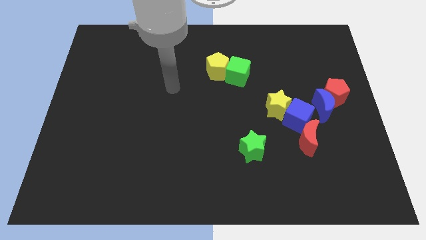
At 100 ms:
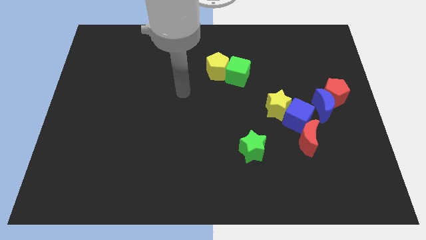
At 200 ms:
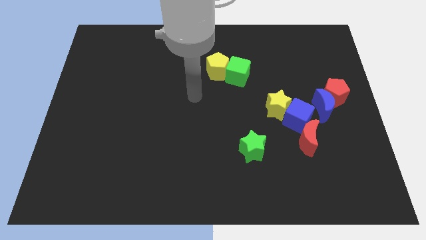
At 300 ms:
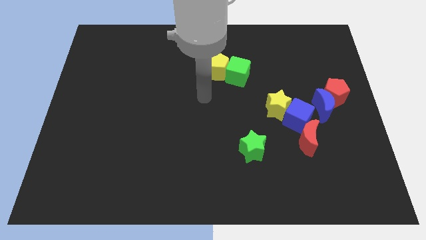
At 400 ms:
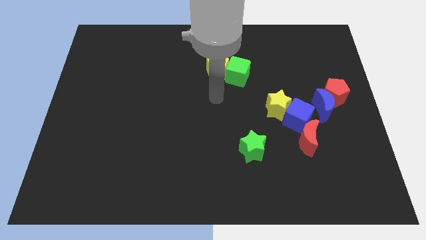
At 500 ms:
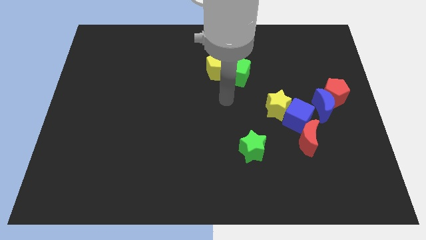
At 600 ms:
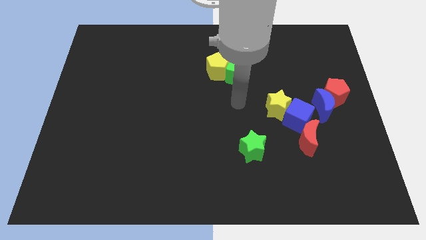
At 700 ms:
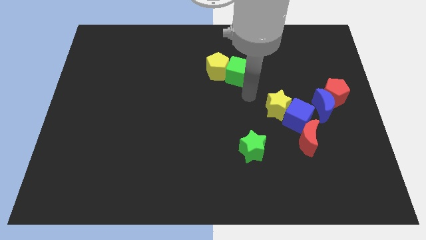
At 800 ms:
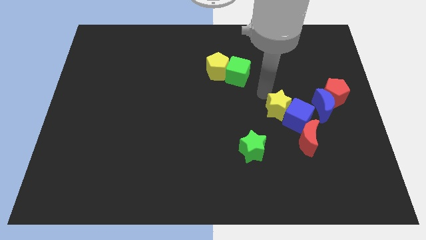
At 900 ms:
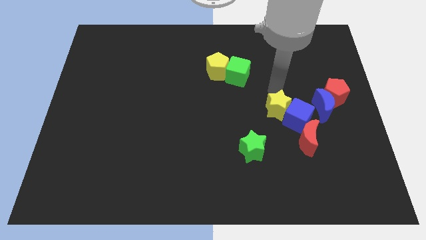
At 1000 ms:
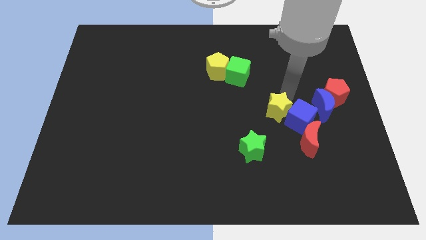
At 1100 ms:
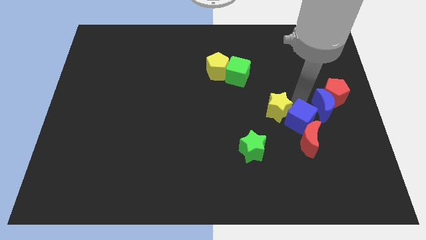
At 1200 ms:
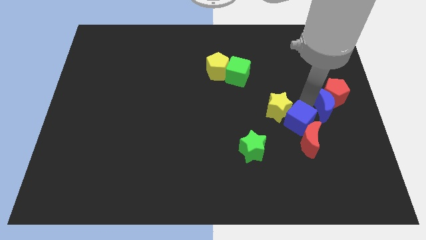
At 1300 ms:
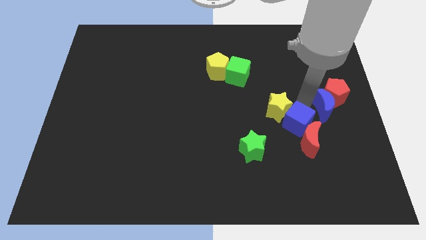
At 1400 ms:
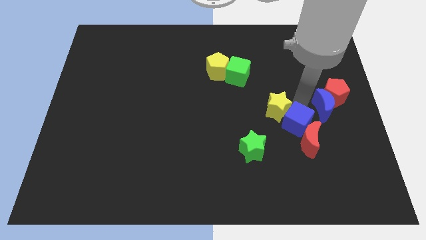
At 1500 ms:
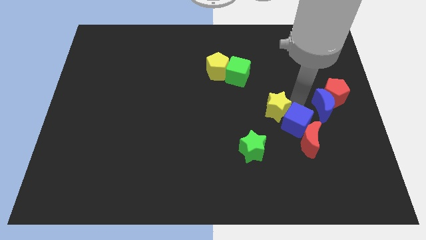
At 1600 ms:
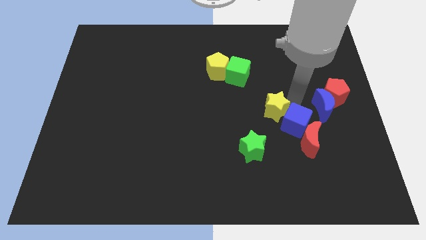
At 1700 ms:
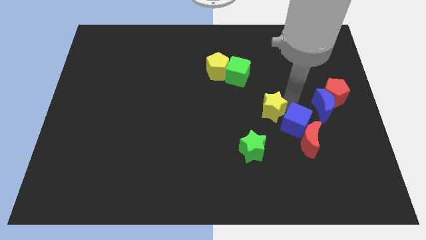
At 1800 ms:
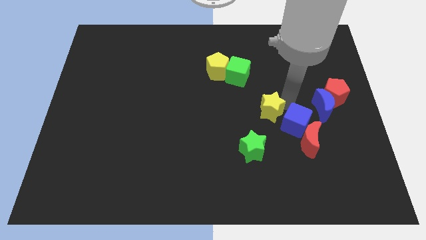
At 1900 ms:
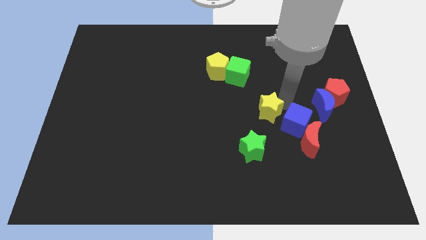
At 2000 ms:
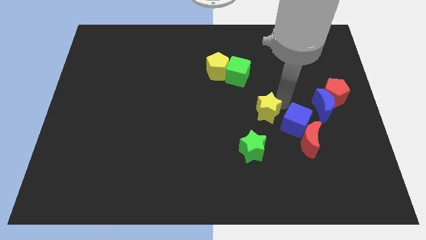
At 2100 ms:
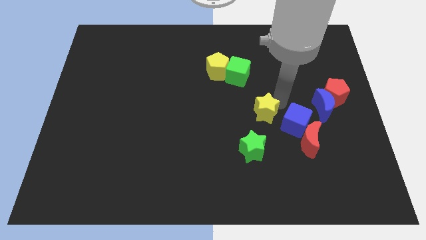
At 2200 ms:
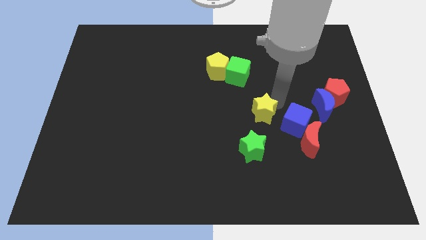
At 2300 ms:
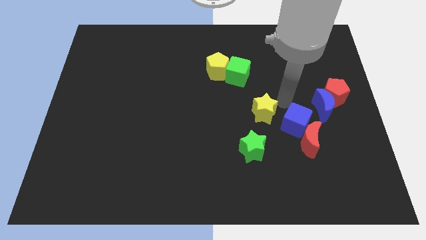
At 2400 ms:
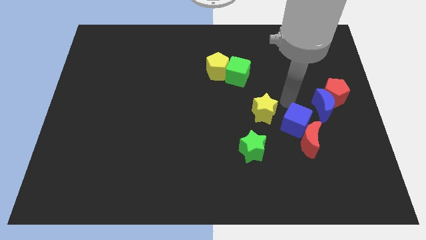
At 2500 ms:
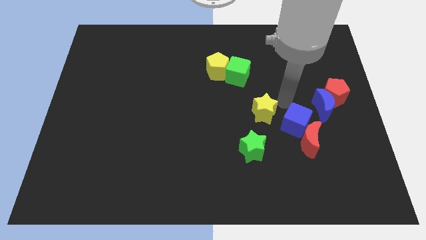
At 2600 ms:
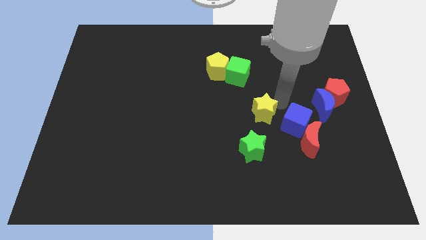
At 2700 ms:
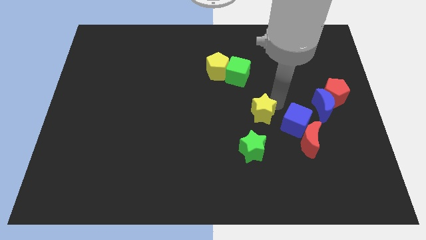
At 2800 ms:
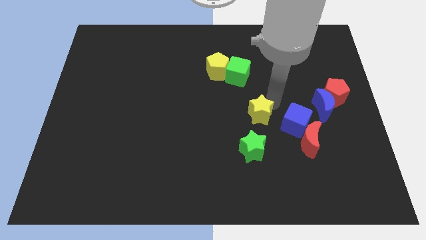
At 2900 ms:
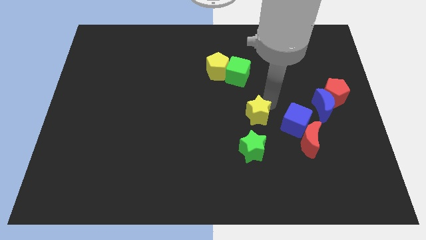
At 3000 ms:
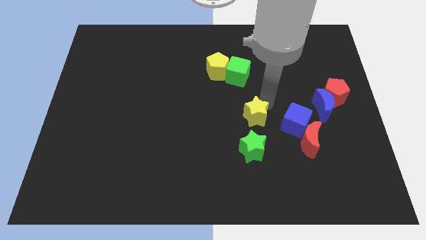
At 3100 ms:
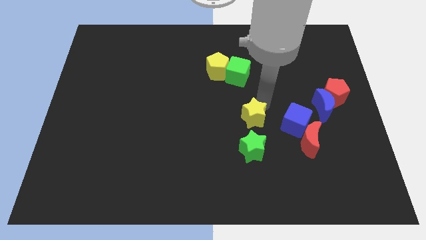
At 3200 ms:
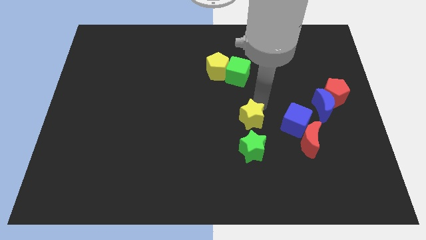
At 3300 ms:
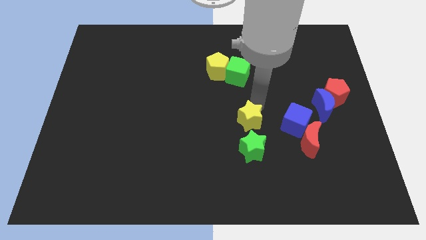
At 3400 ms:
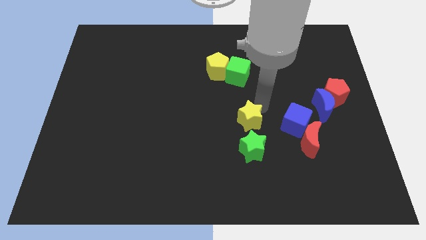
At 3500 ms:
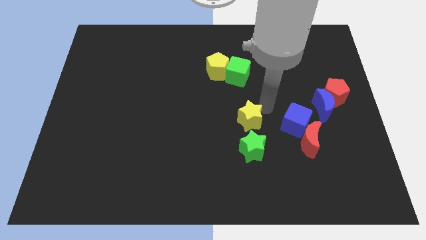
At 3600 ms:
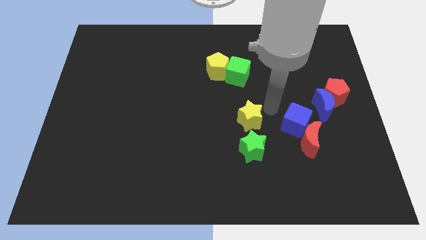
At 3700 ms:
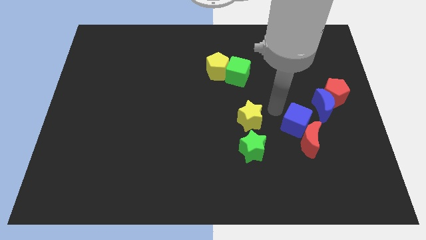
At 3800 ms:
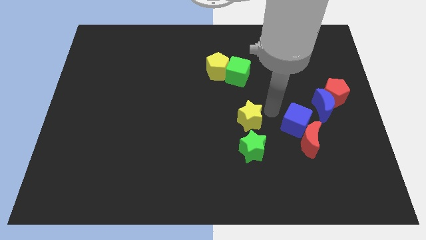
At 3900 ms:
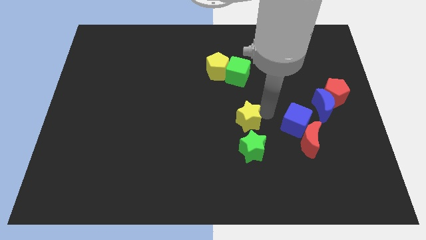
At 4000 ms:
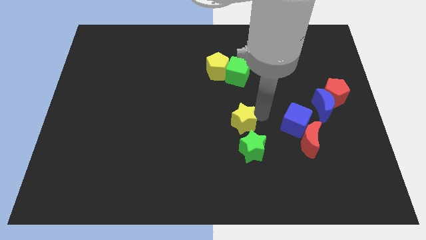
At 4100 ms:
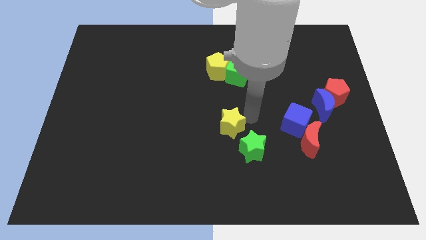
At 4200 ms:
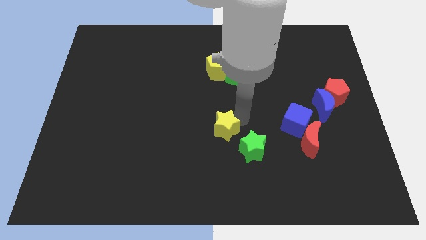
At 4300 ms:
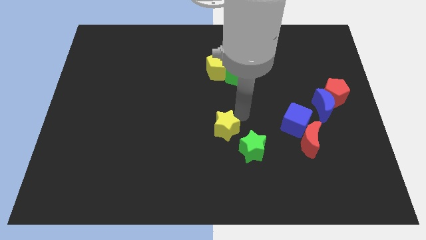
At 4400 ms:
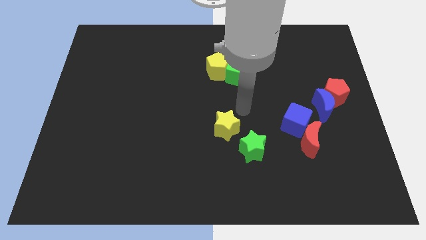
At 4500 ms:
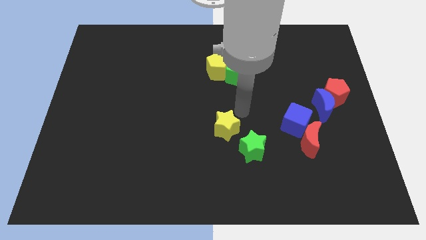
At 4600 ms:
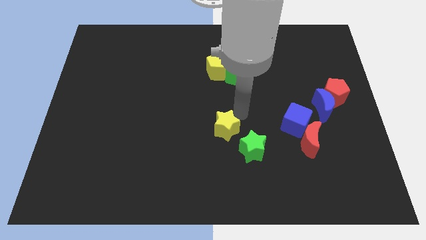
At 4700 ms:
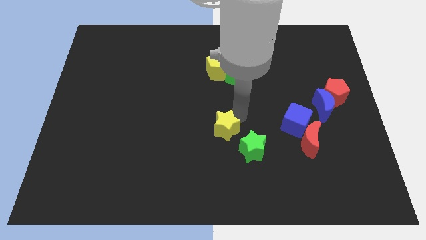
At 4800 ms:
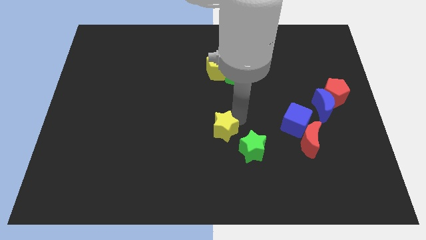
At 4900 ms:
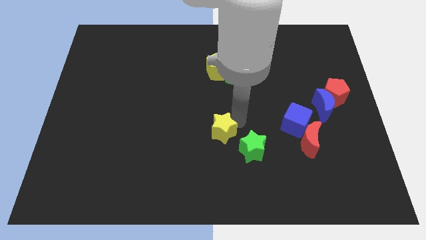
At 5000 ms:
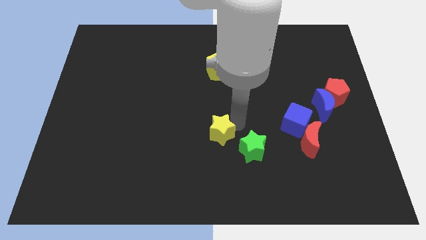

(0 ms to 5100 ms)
move the yellow star just left of the green star

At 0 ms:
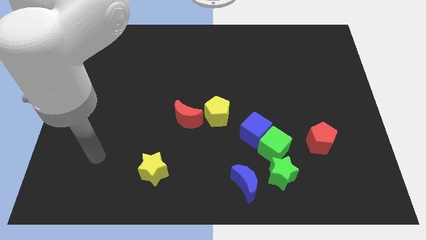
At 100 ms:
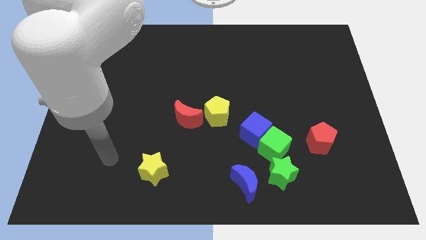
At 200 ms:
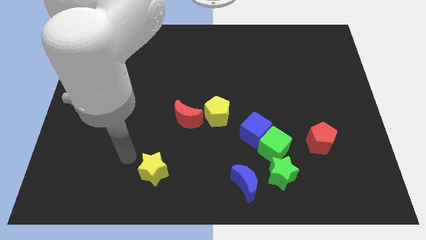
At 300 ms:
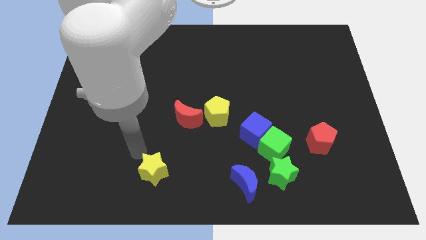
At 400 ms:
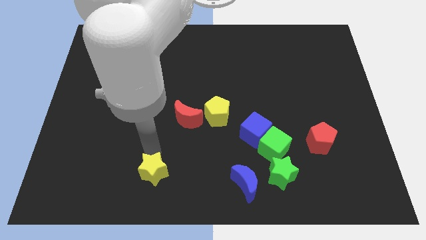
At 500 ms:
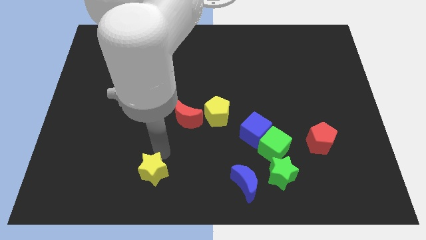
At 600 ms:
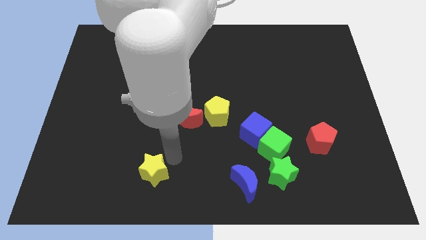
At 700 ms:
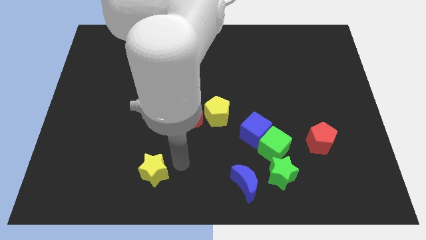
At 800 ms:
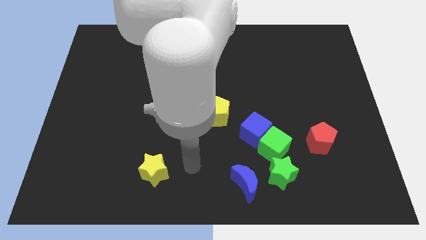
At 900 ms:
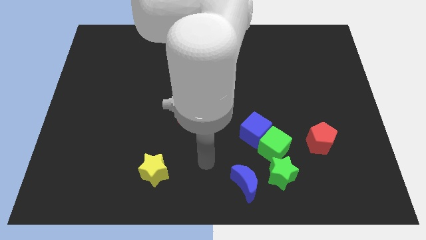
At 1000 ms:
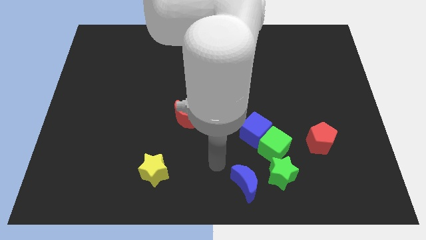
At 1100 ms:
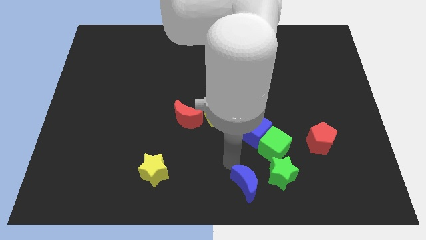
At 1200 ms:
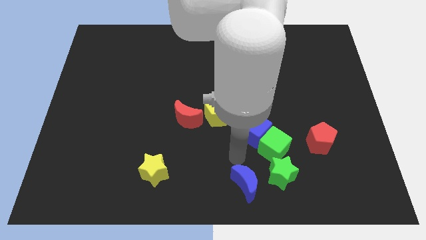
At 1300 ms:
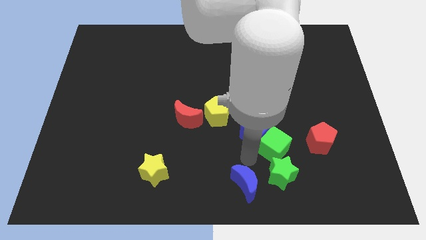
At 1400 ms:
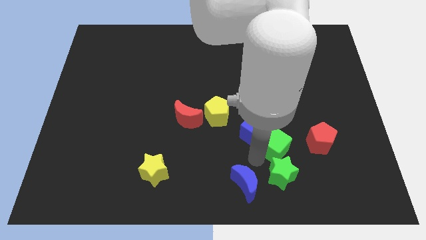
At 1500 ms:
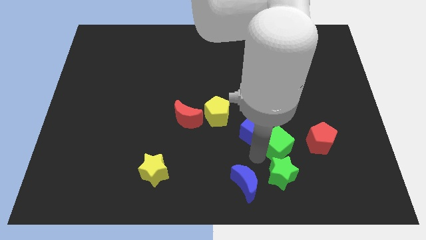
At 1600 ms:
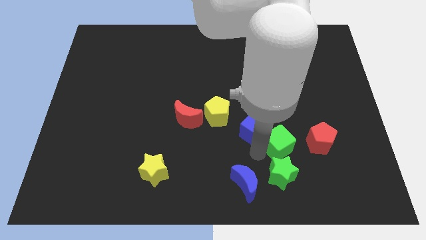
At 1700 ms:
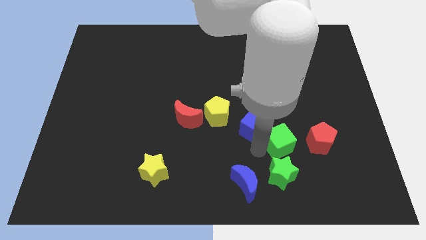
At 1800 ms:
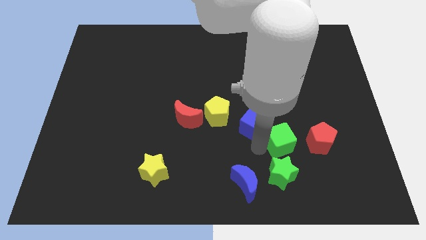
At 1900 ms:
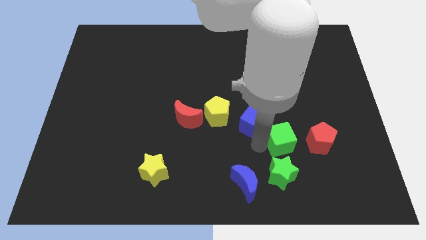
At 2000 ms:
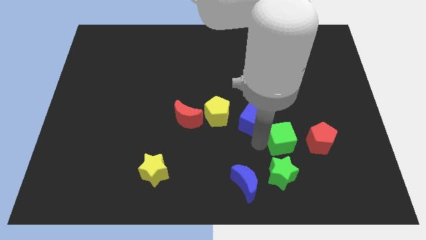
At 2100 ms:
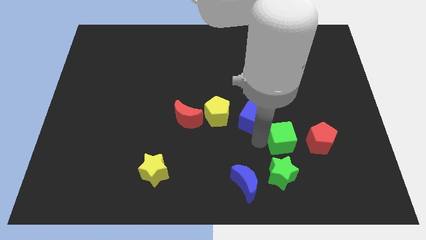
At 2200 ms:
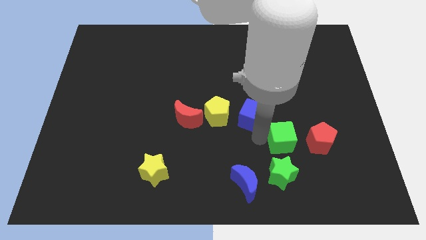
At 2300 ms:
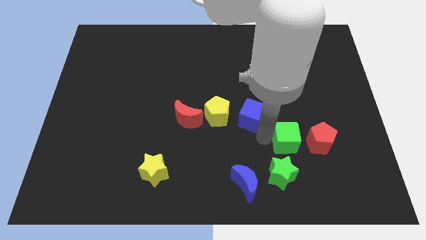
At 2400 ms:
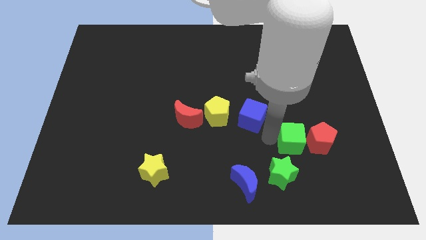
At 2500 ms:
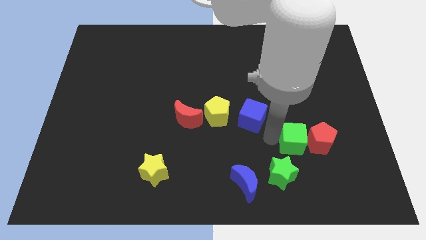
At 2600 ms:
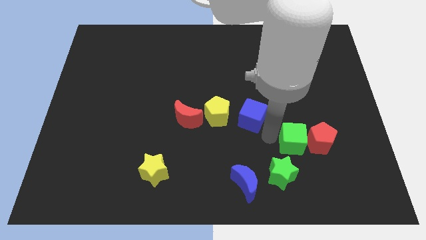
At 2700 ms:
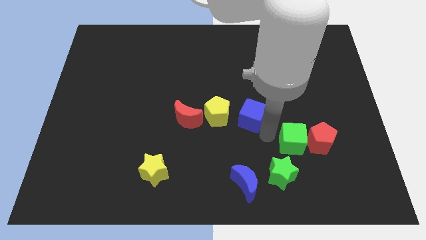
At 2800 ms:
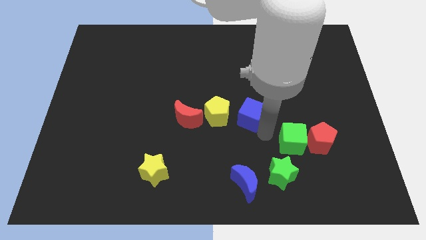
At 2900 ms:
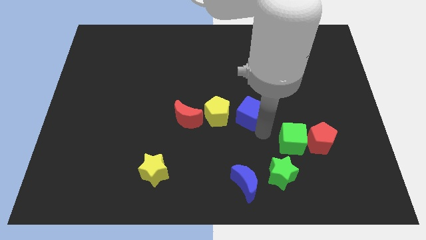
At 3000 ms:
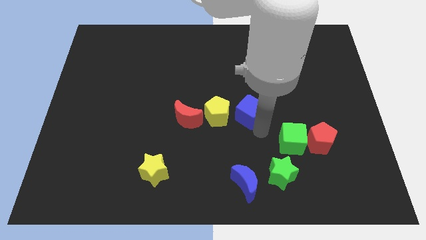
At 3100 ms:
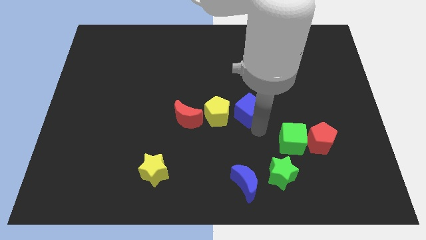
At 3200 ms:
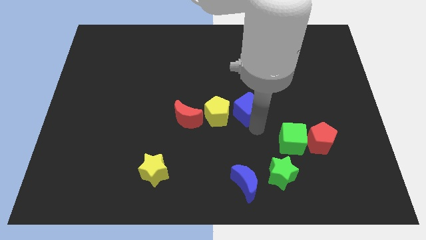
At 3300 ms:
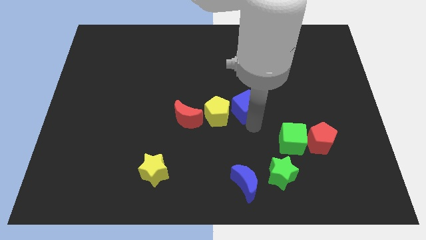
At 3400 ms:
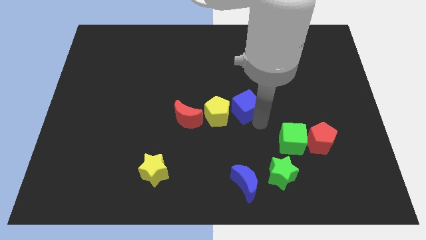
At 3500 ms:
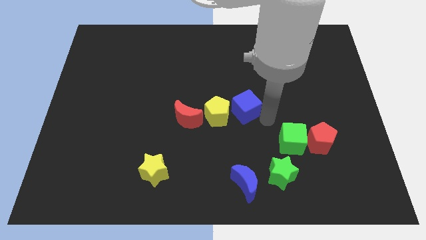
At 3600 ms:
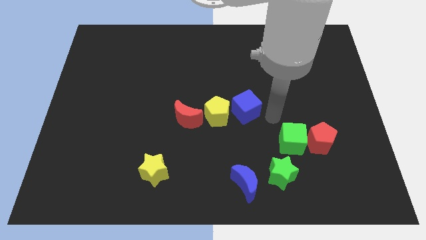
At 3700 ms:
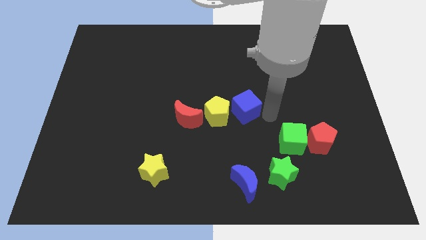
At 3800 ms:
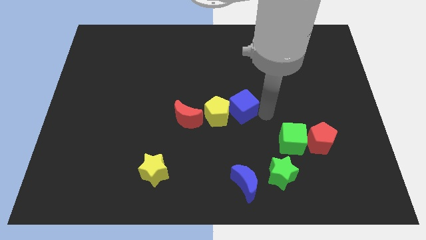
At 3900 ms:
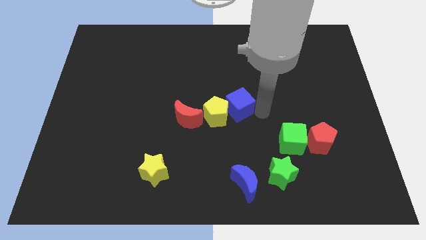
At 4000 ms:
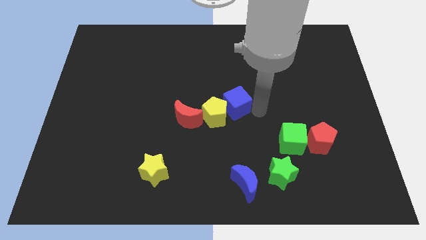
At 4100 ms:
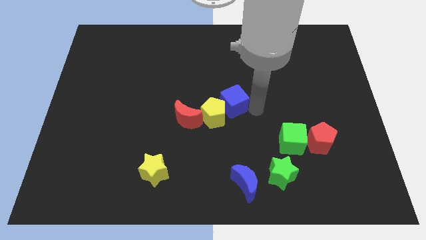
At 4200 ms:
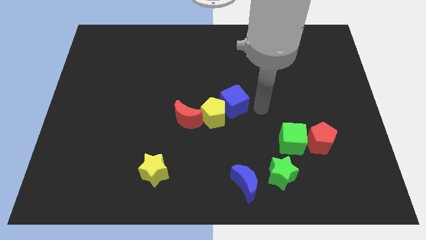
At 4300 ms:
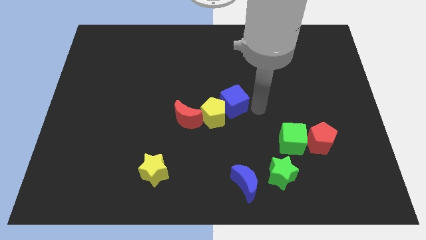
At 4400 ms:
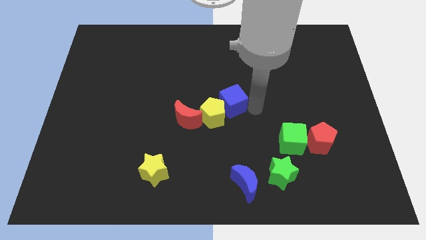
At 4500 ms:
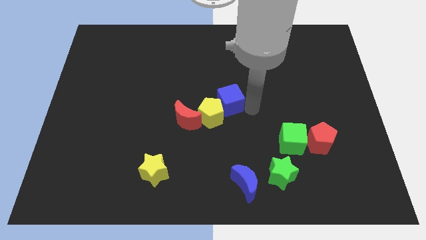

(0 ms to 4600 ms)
push the blue cube to the top right of the red moon
